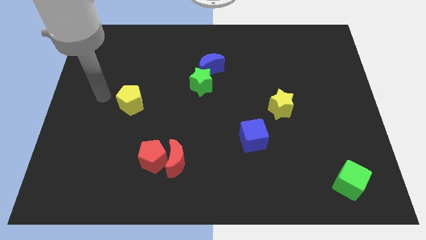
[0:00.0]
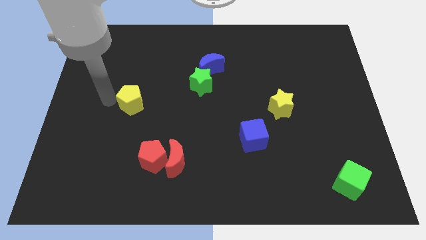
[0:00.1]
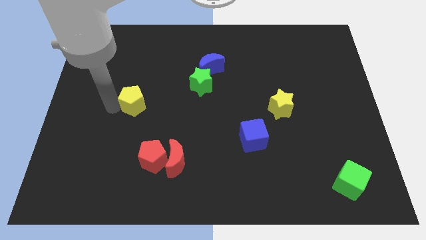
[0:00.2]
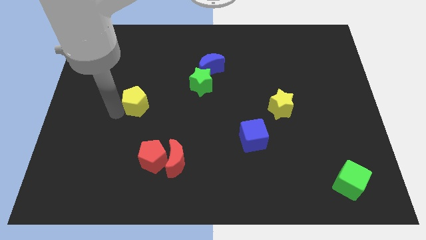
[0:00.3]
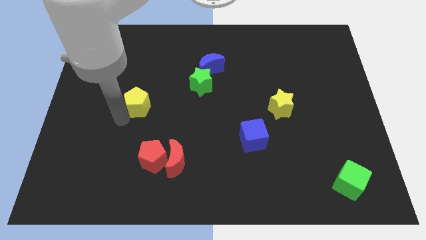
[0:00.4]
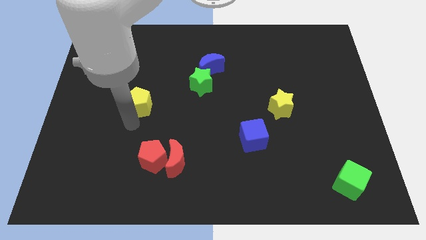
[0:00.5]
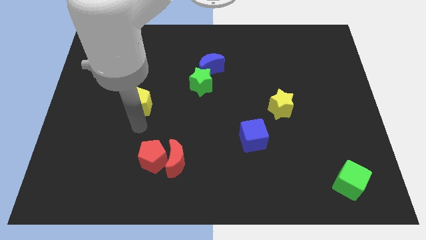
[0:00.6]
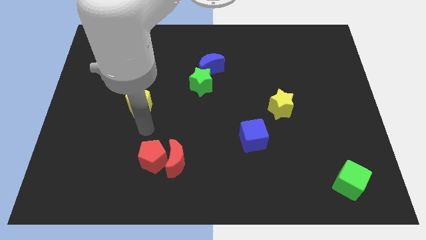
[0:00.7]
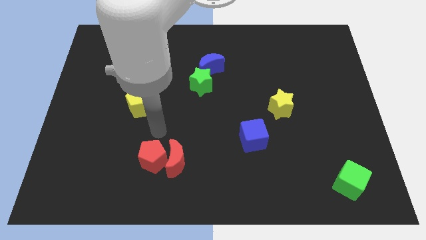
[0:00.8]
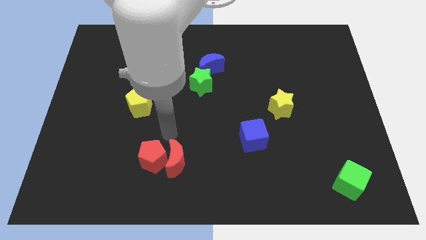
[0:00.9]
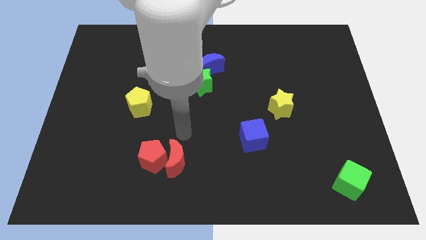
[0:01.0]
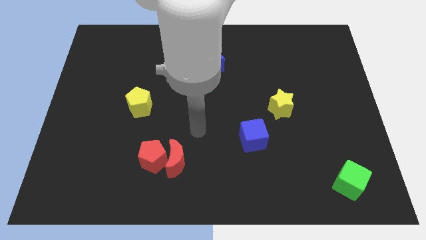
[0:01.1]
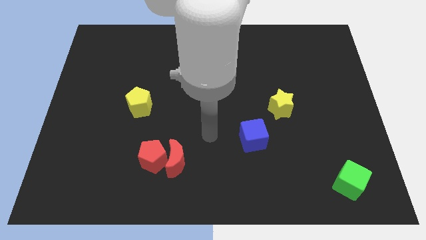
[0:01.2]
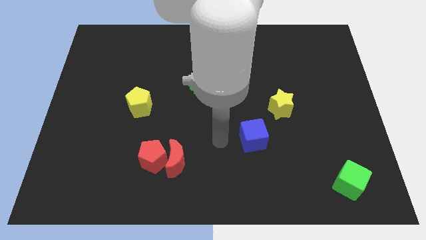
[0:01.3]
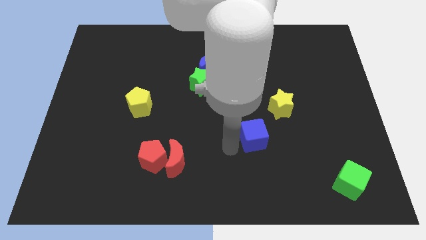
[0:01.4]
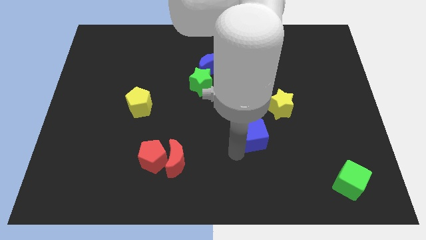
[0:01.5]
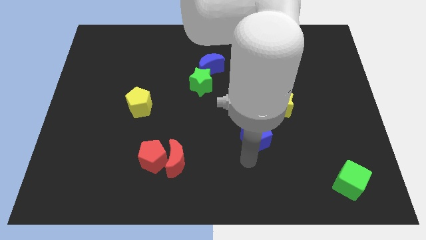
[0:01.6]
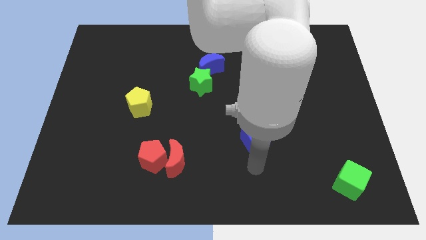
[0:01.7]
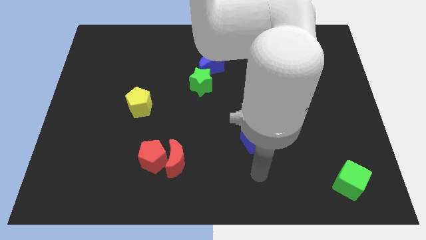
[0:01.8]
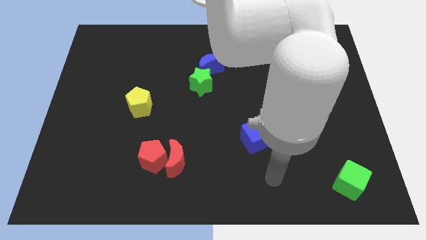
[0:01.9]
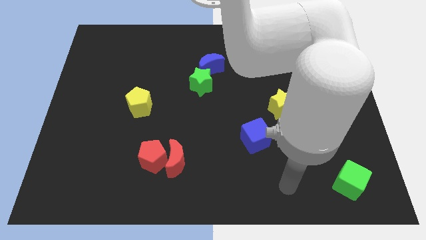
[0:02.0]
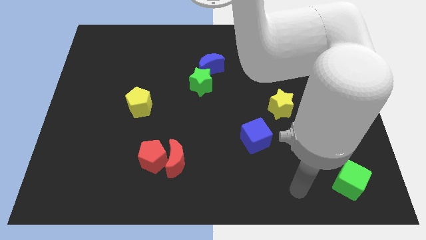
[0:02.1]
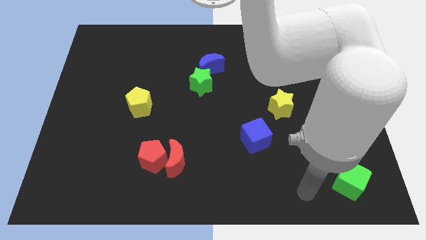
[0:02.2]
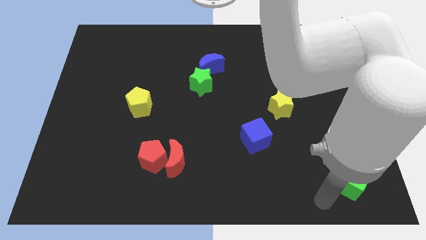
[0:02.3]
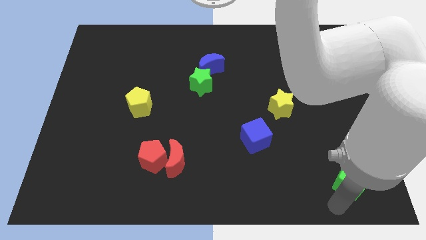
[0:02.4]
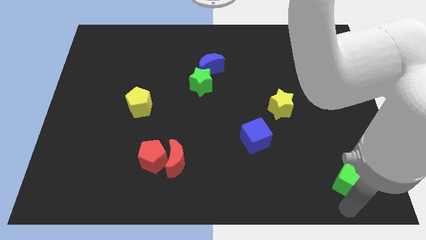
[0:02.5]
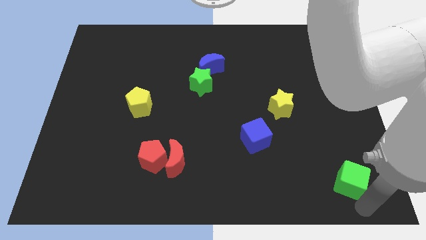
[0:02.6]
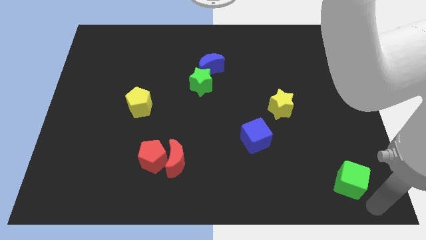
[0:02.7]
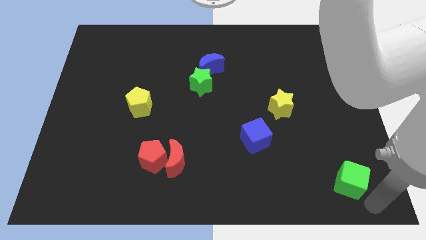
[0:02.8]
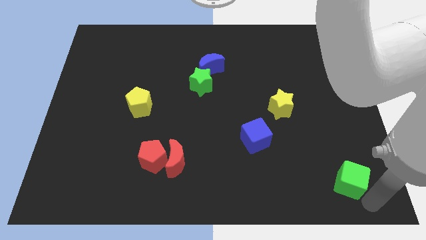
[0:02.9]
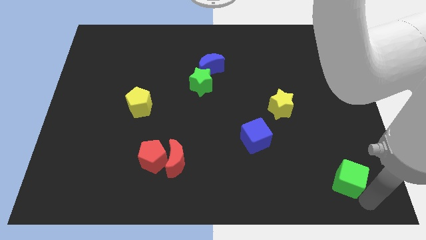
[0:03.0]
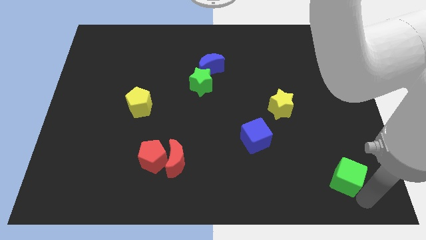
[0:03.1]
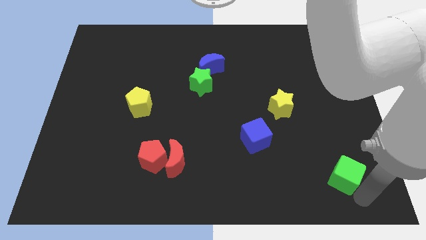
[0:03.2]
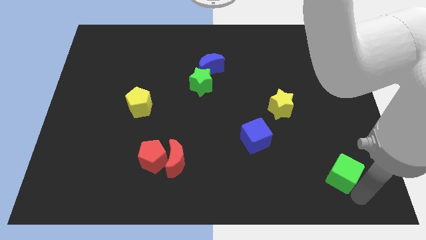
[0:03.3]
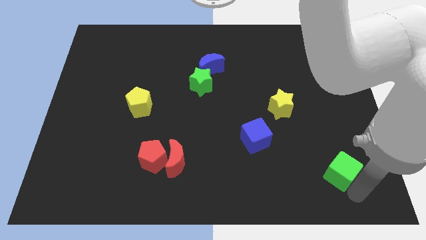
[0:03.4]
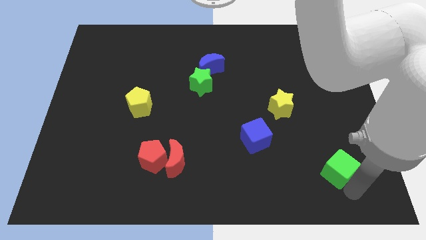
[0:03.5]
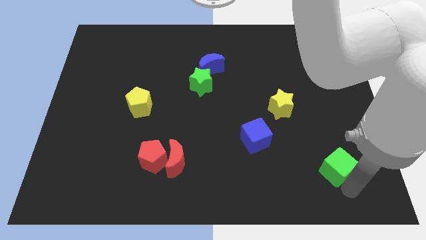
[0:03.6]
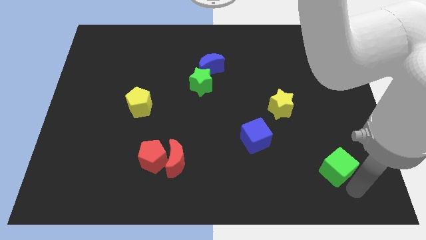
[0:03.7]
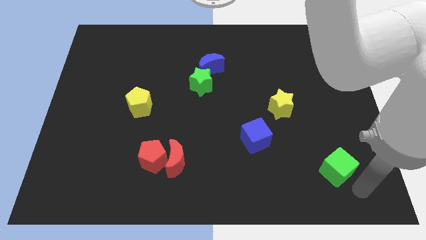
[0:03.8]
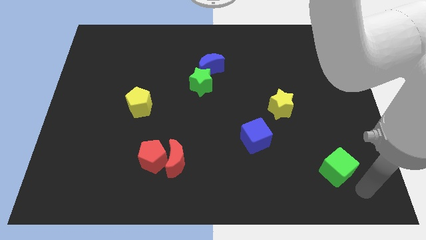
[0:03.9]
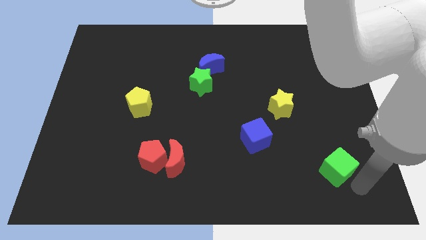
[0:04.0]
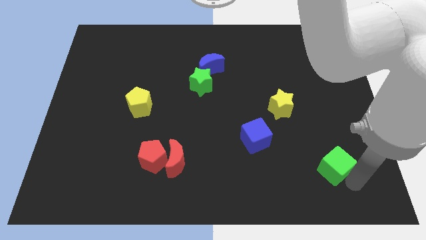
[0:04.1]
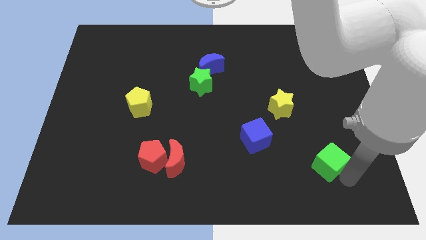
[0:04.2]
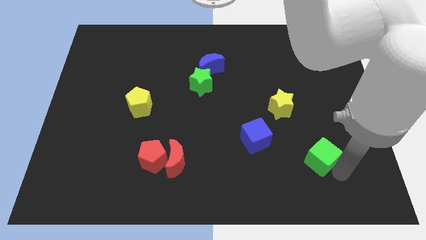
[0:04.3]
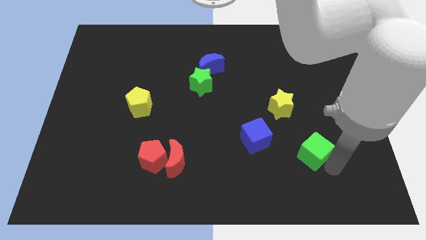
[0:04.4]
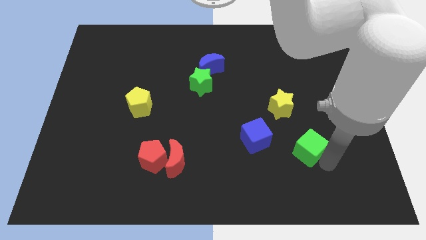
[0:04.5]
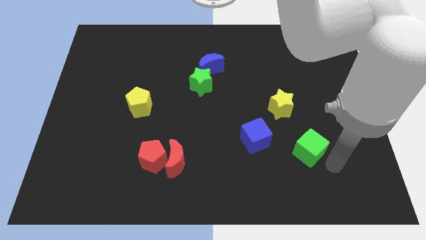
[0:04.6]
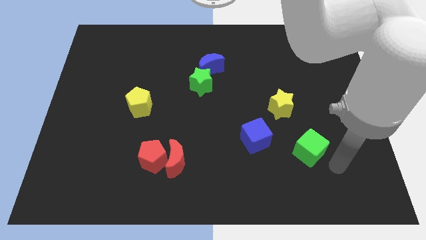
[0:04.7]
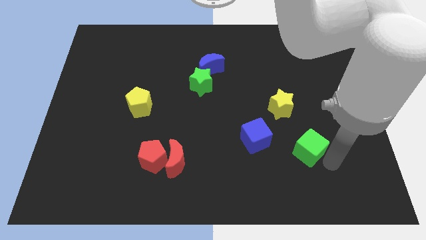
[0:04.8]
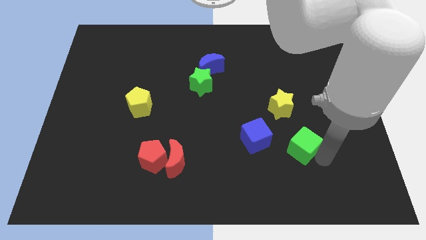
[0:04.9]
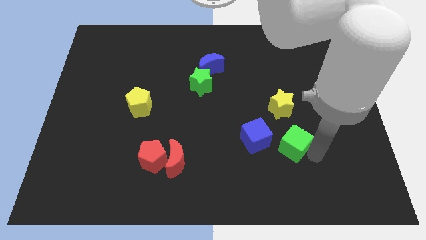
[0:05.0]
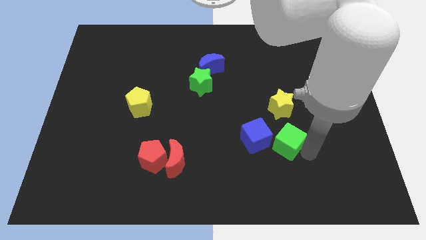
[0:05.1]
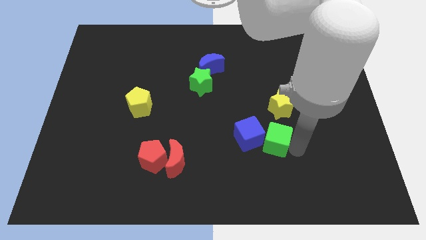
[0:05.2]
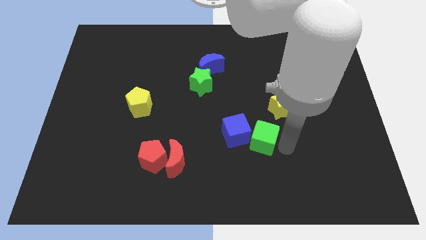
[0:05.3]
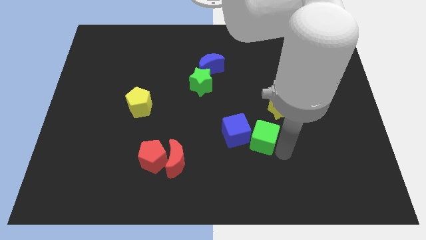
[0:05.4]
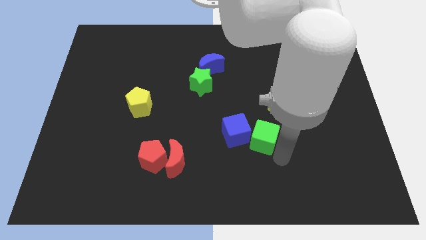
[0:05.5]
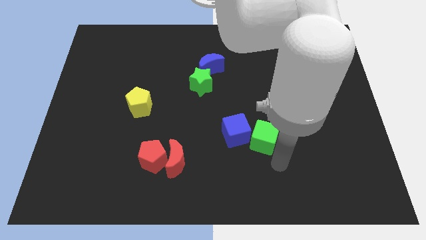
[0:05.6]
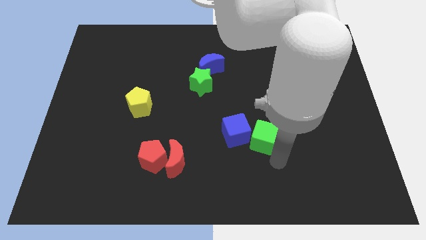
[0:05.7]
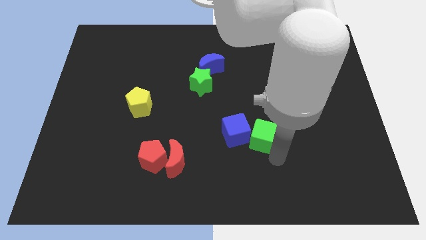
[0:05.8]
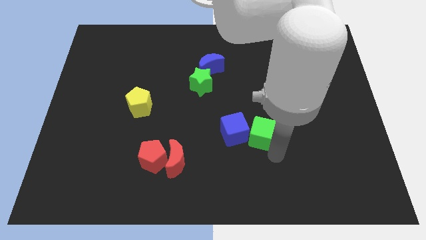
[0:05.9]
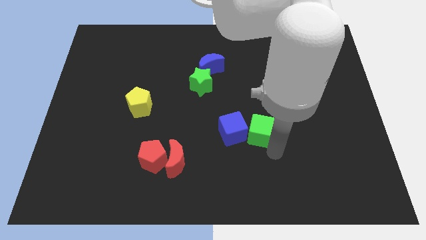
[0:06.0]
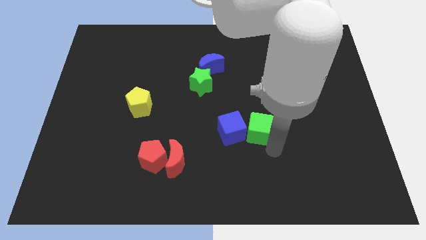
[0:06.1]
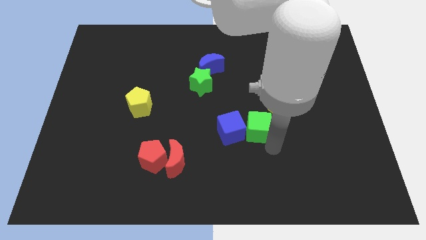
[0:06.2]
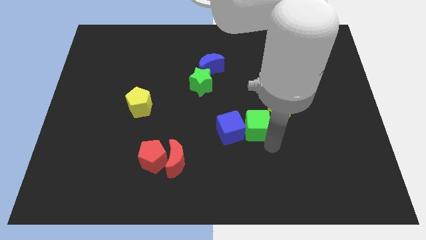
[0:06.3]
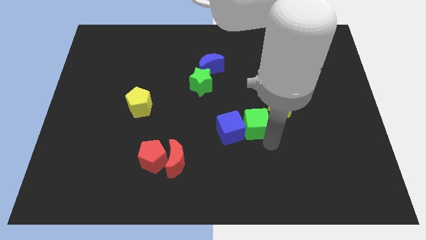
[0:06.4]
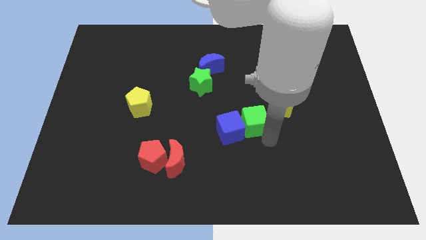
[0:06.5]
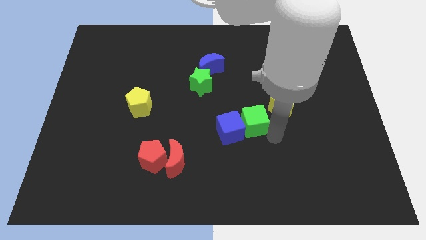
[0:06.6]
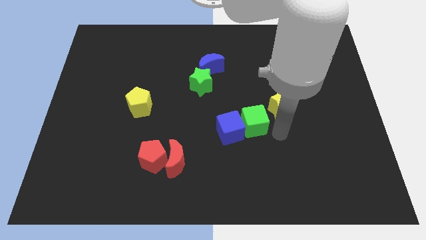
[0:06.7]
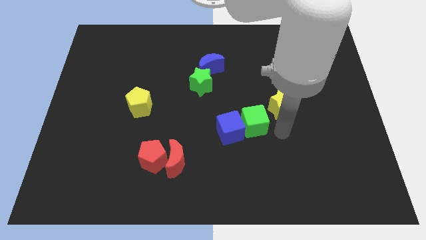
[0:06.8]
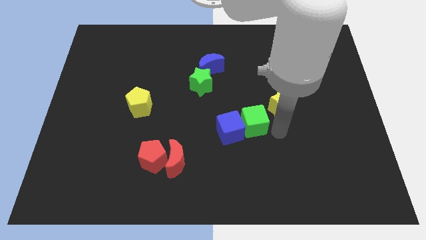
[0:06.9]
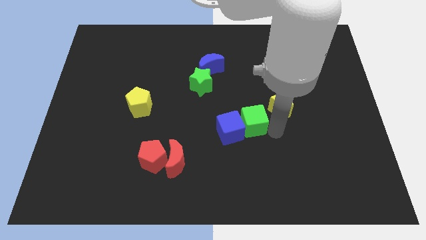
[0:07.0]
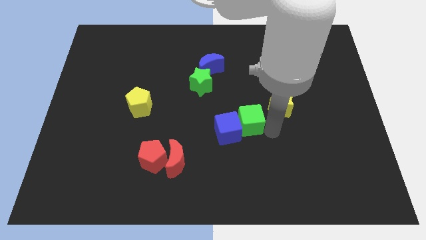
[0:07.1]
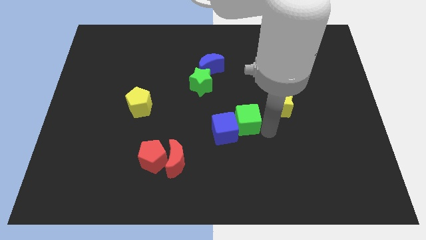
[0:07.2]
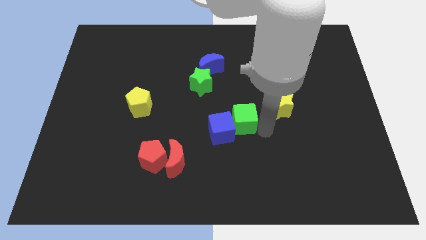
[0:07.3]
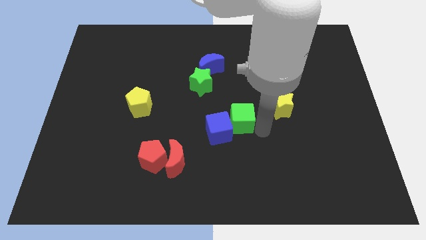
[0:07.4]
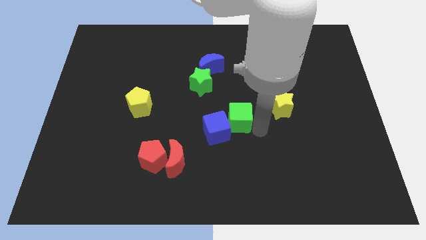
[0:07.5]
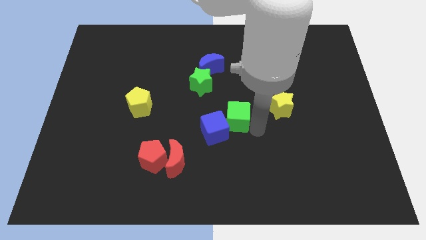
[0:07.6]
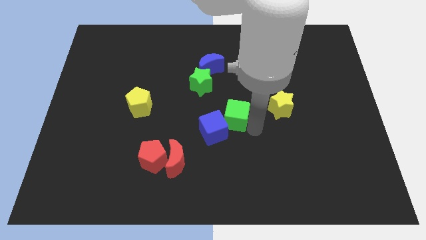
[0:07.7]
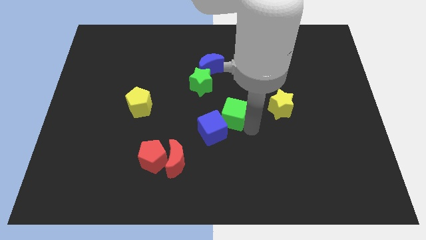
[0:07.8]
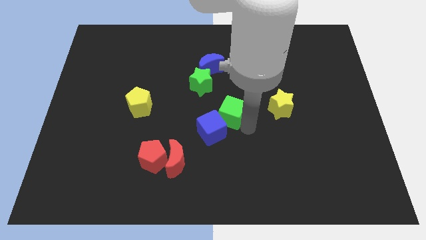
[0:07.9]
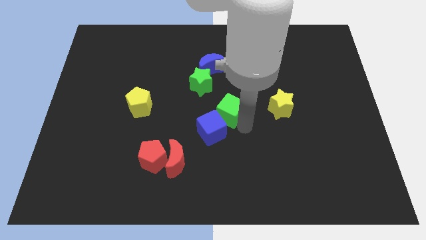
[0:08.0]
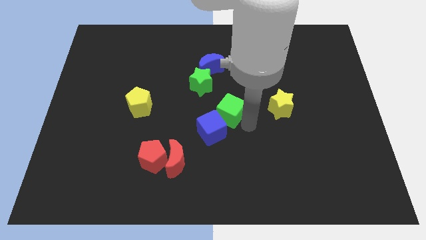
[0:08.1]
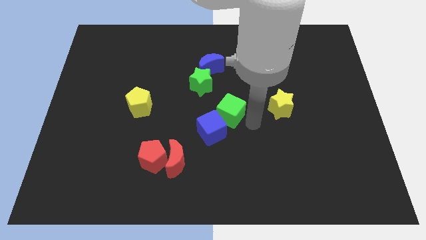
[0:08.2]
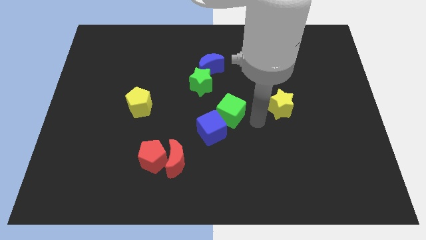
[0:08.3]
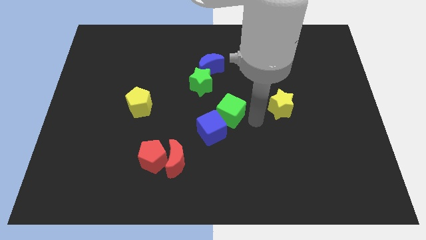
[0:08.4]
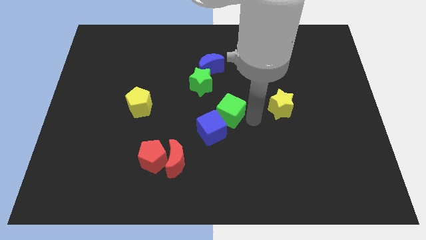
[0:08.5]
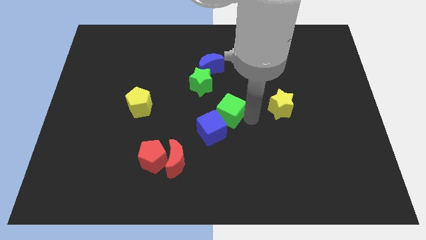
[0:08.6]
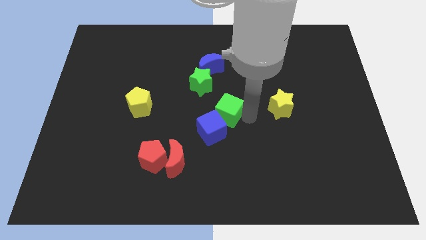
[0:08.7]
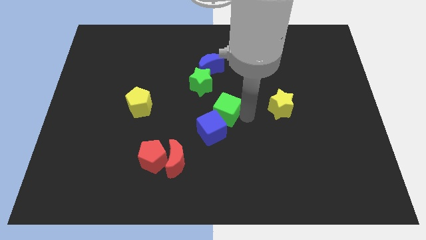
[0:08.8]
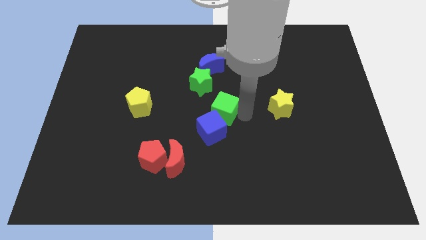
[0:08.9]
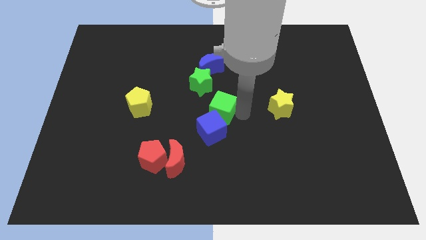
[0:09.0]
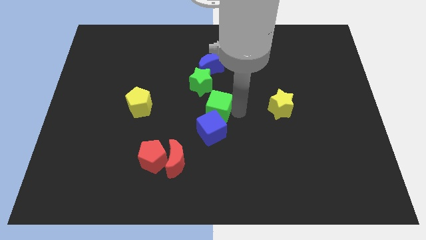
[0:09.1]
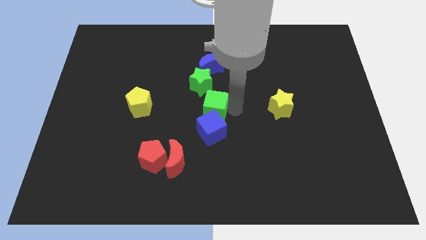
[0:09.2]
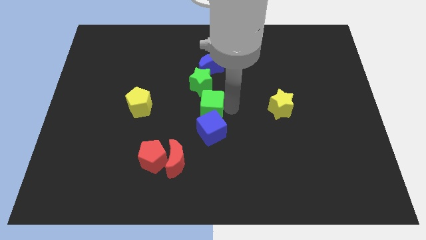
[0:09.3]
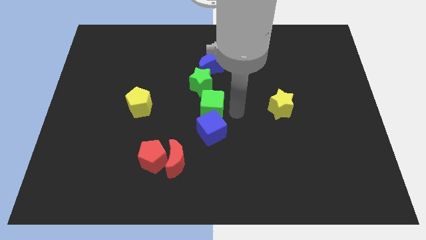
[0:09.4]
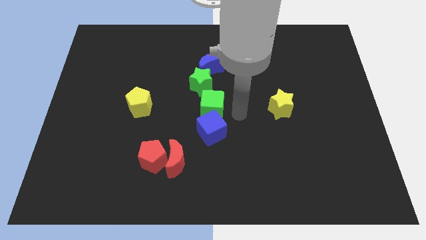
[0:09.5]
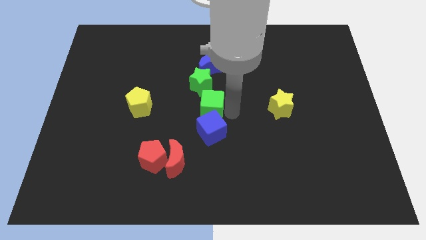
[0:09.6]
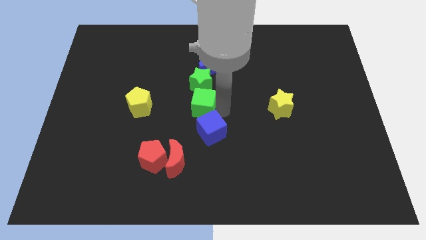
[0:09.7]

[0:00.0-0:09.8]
move the green cube to the bottom left side of the green star
